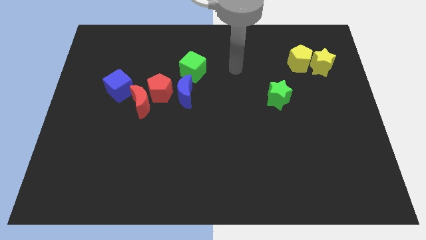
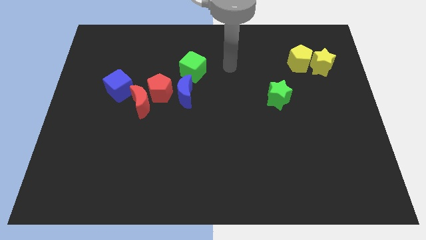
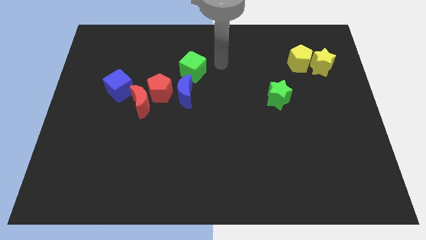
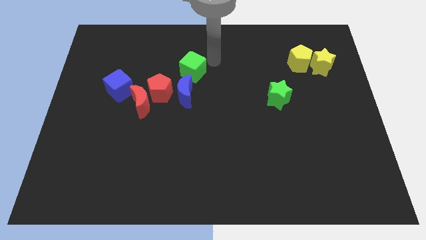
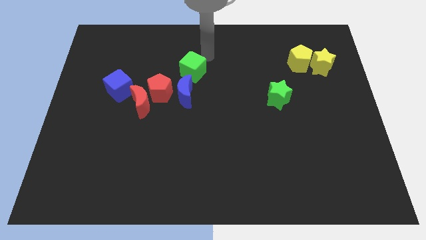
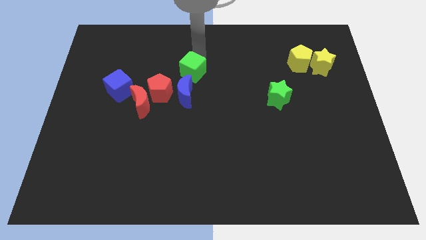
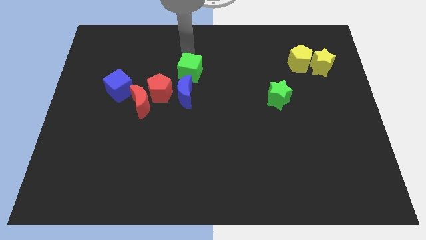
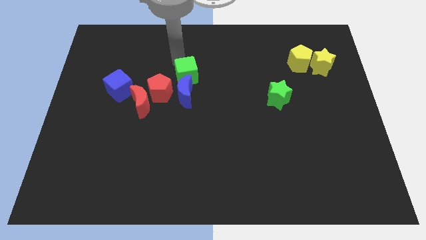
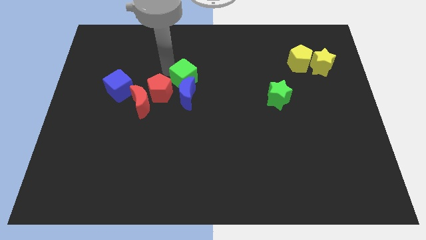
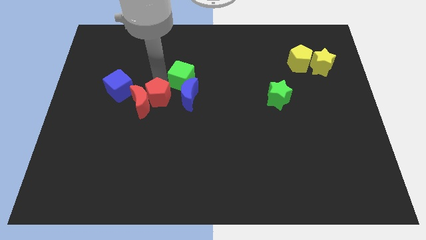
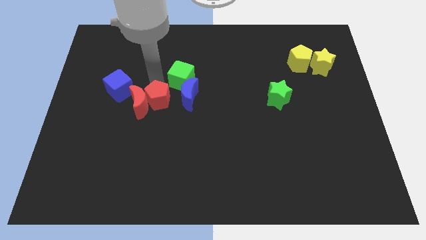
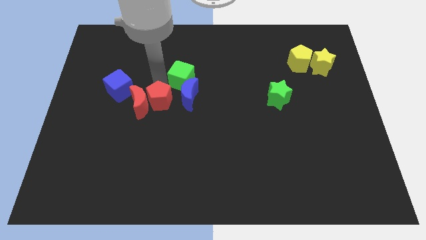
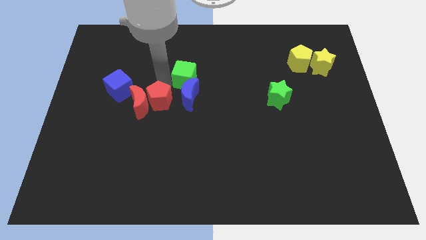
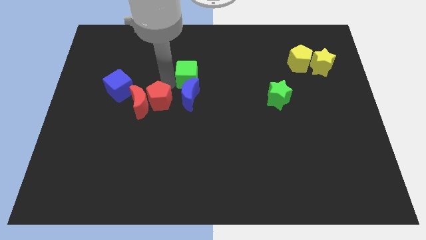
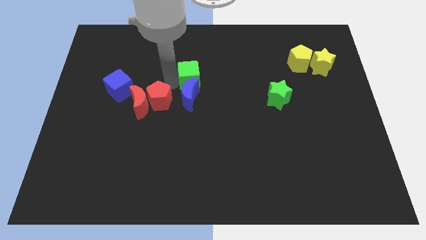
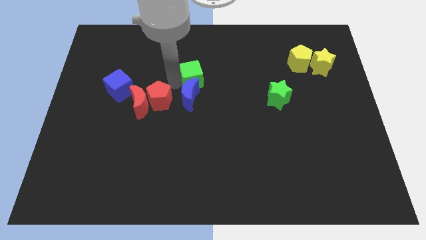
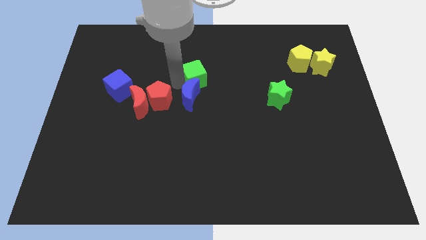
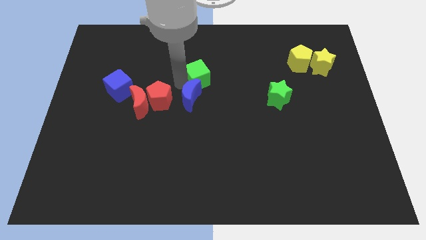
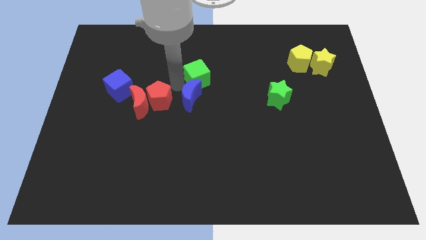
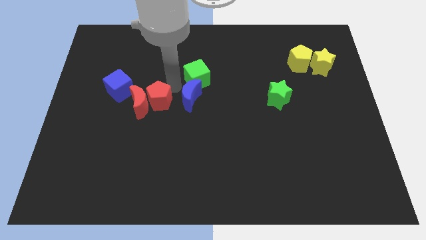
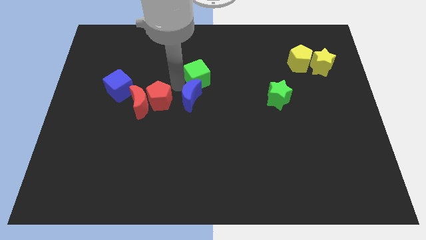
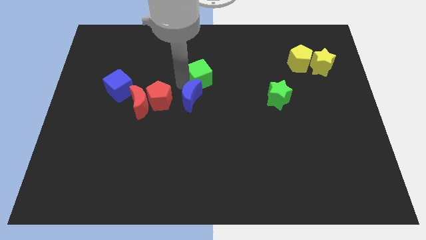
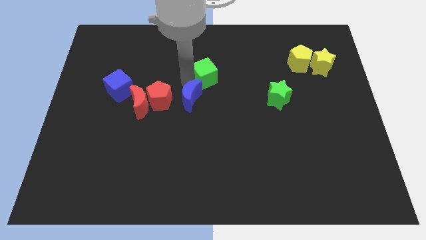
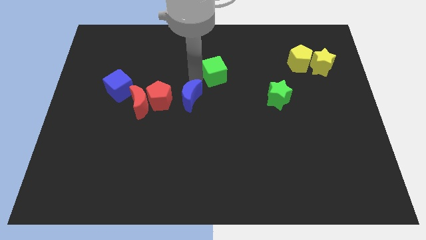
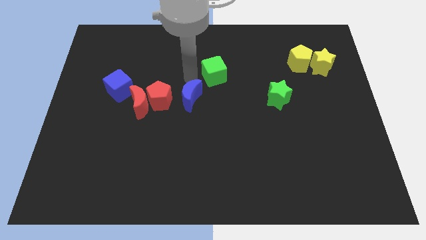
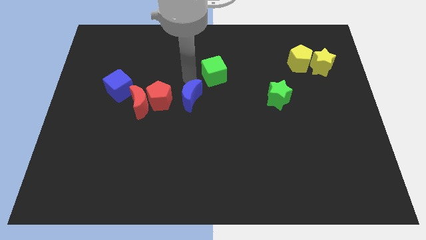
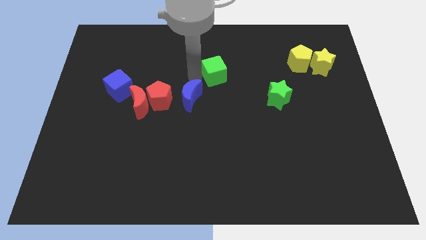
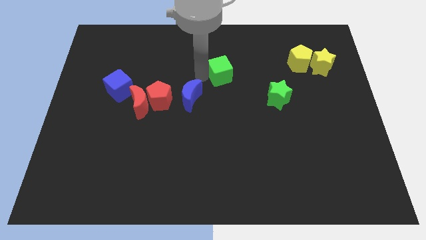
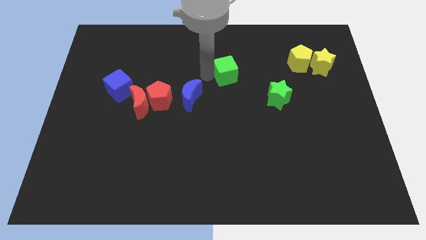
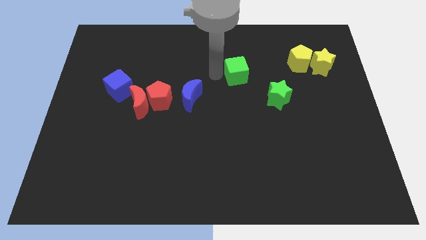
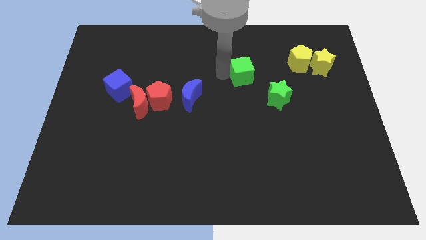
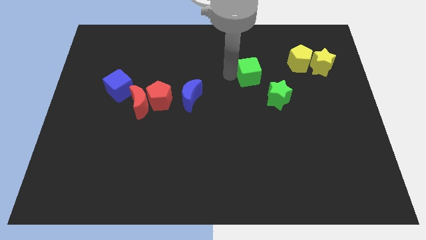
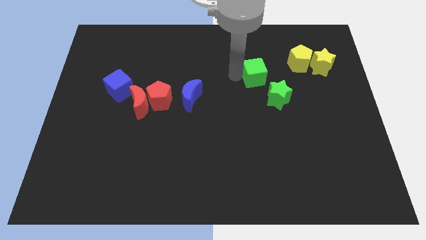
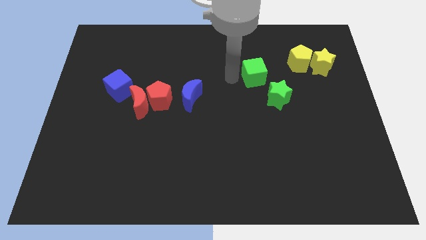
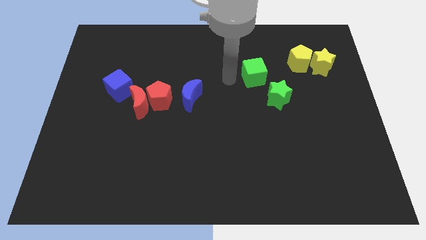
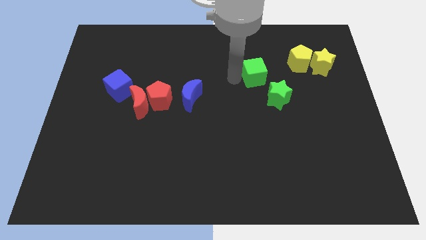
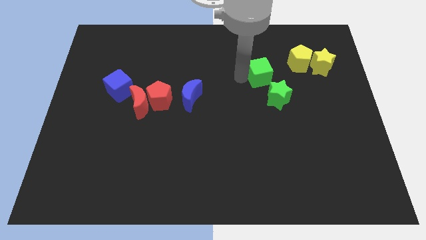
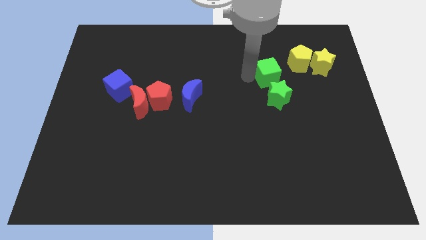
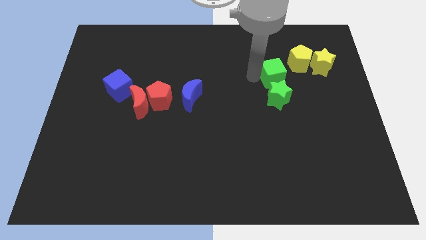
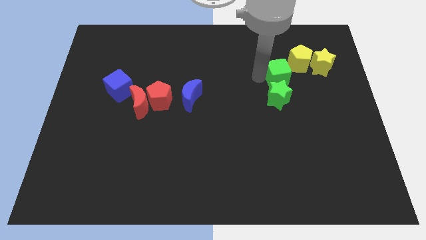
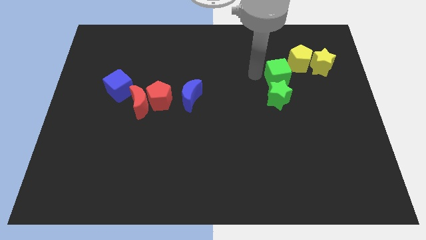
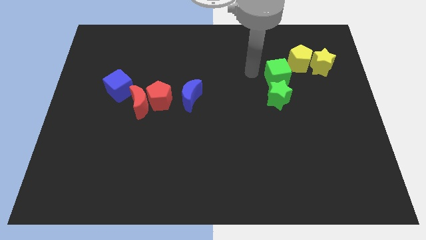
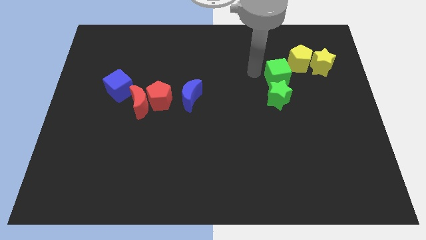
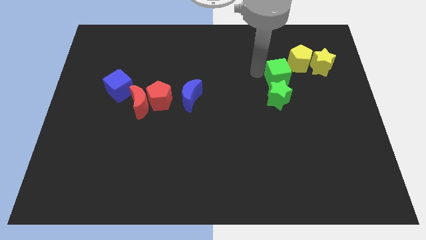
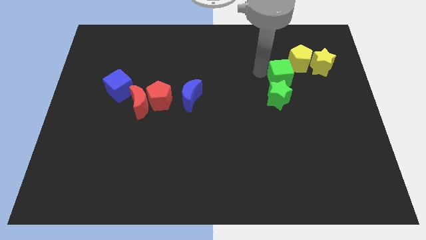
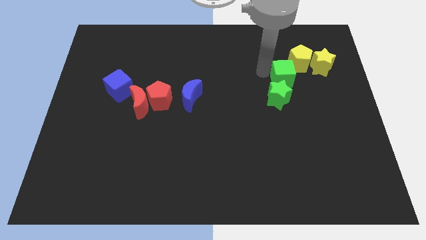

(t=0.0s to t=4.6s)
push the green cube diagonally down and to the left of the yellow star

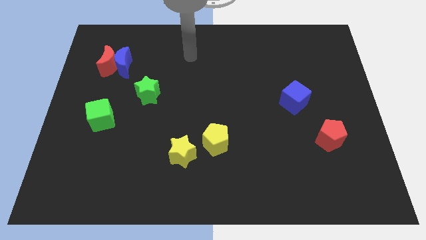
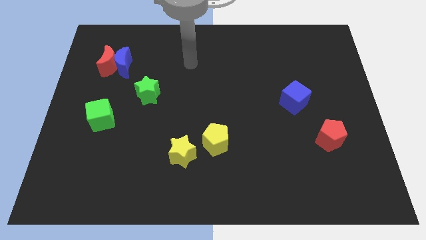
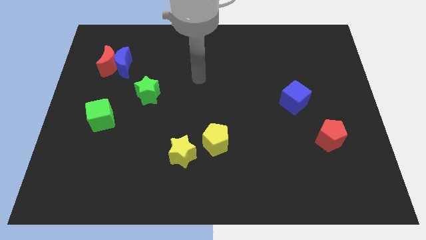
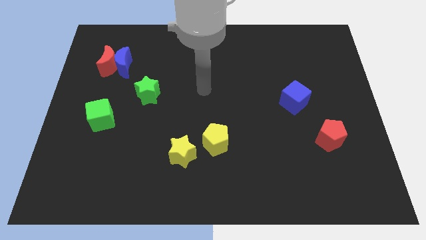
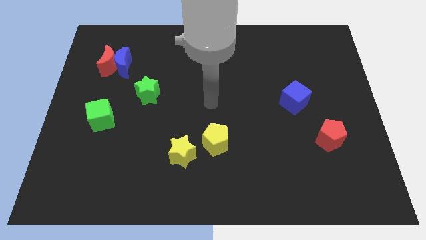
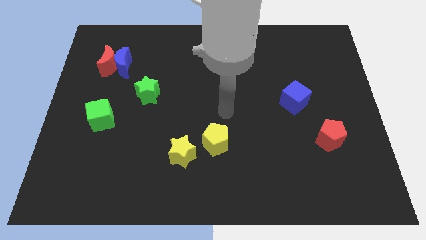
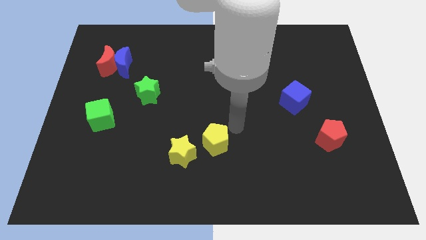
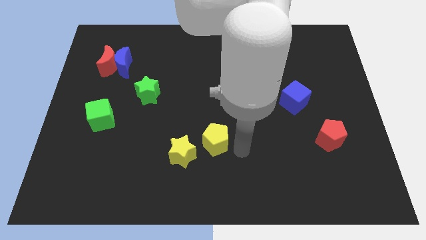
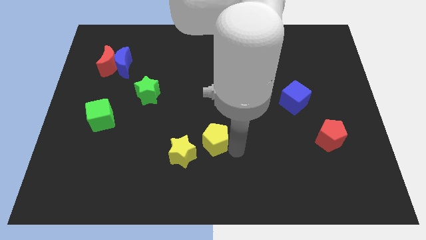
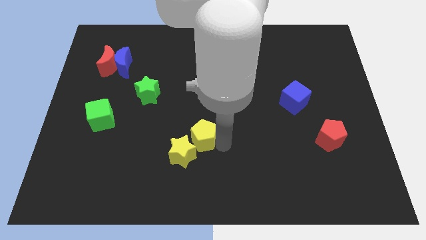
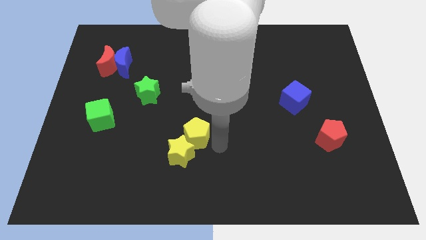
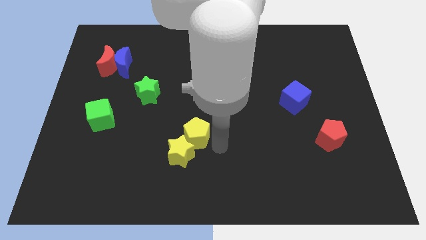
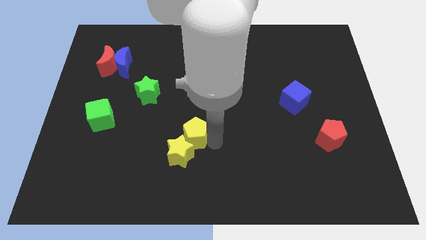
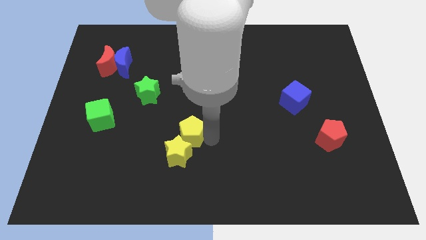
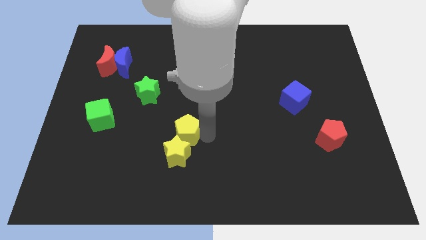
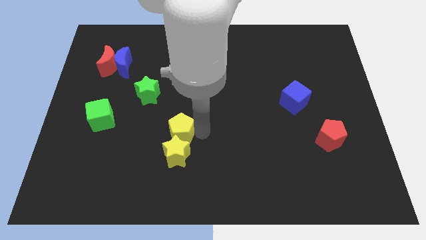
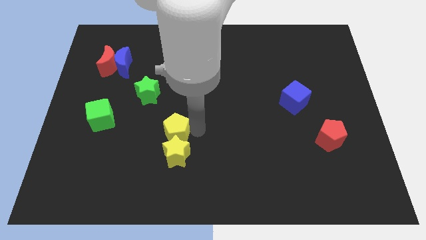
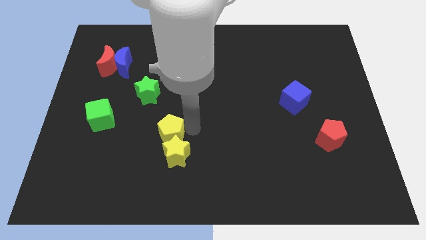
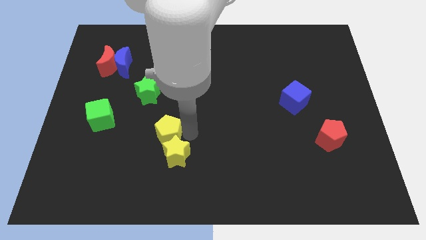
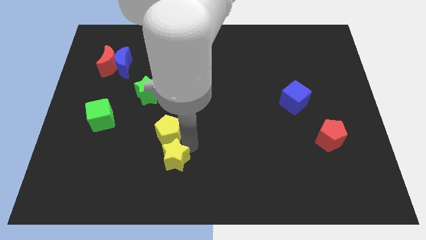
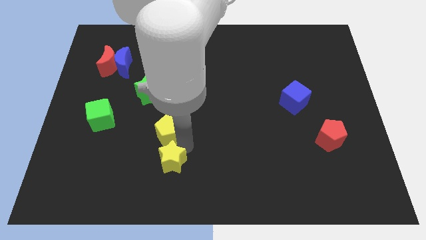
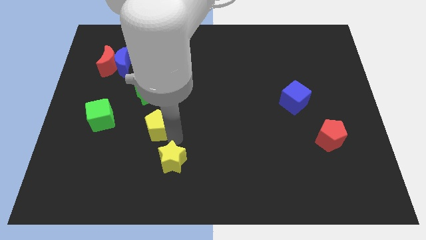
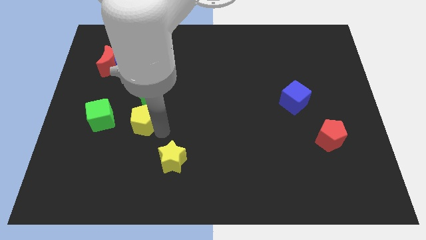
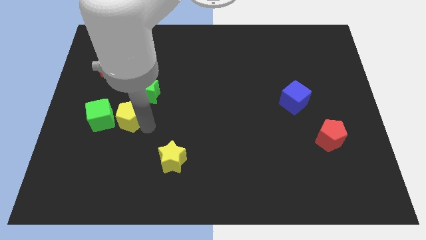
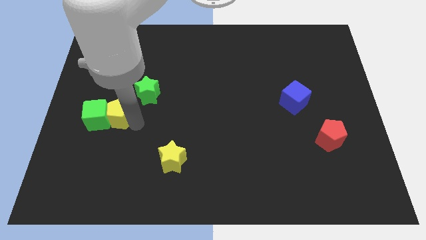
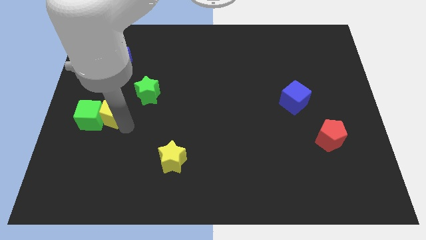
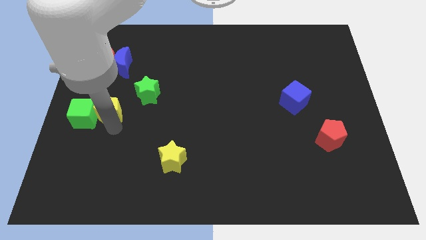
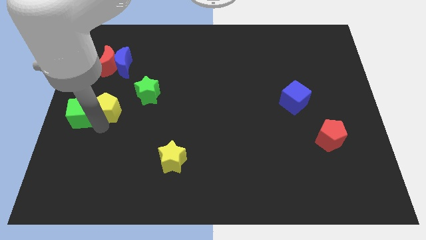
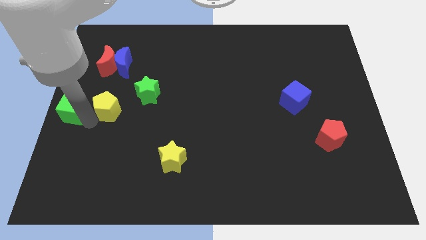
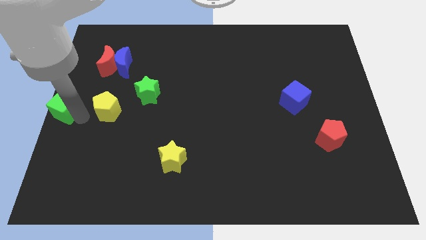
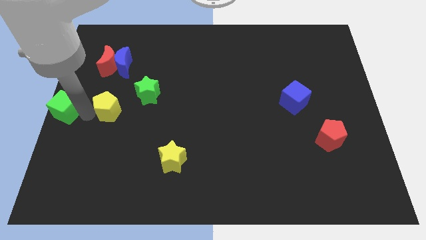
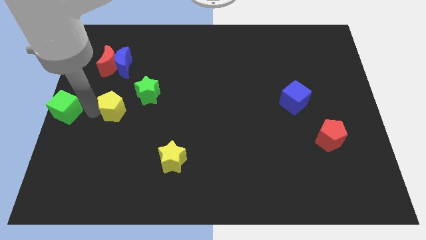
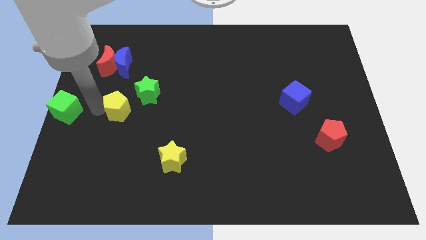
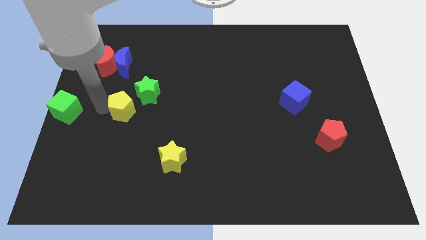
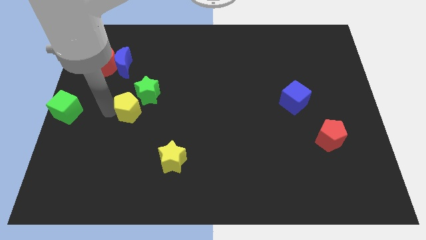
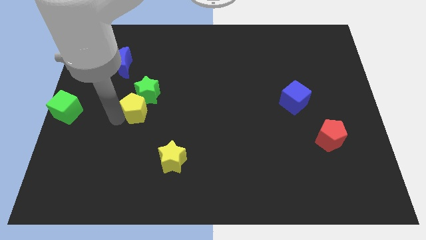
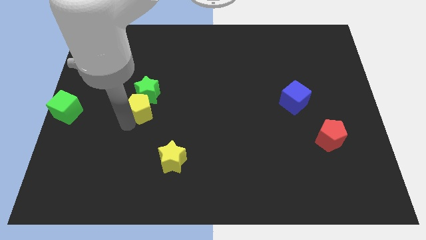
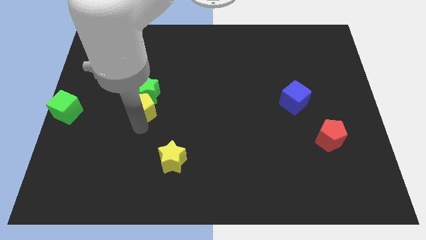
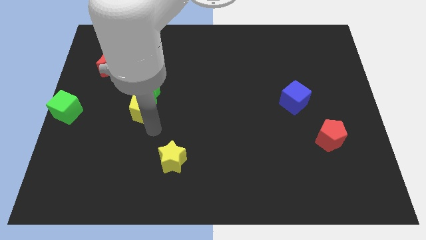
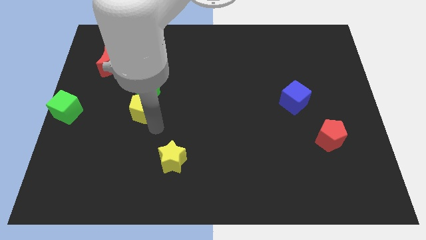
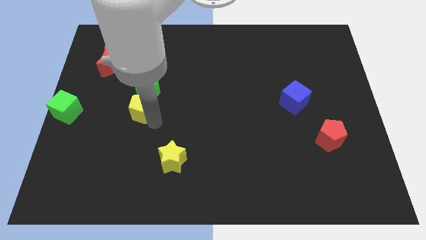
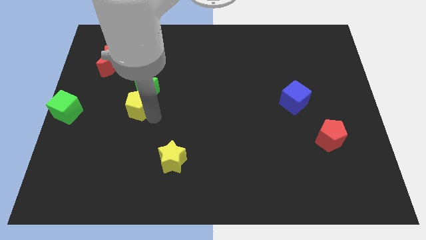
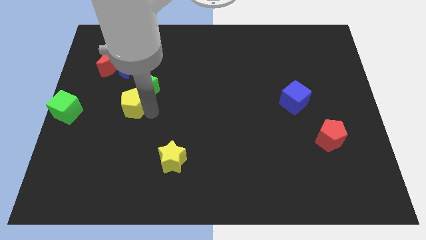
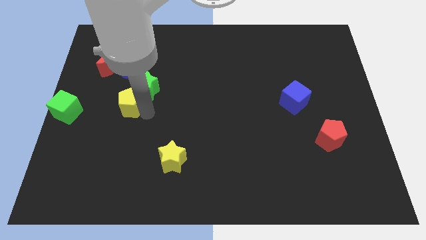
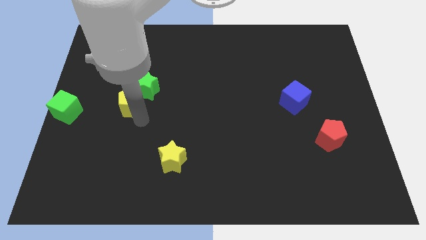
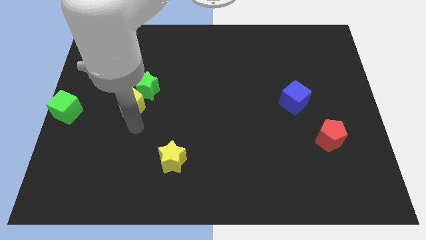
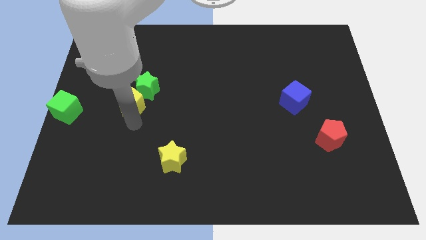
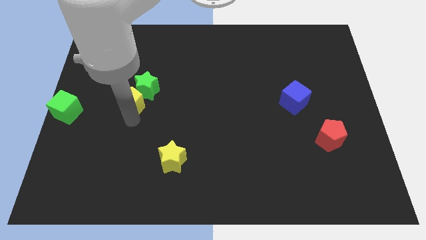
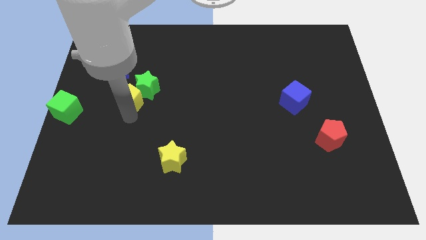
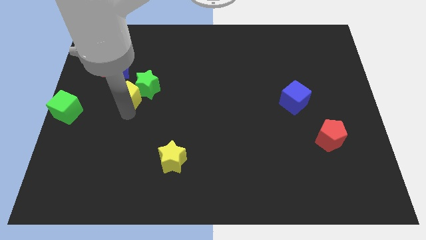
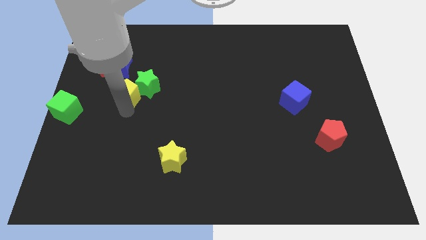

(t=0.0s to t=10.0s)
slide the yellow pentagon diagonally down and to the right of the red moon
